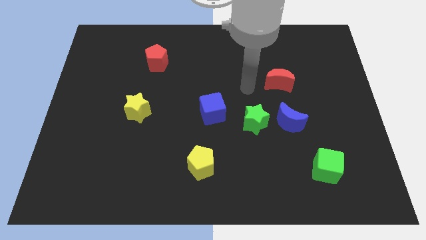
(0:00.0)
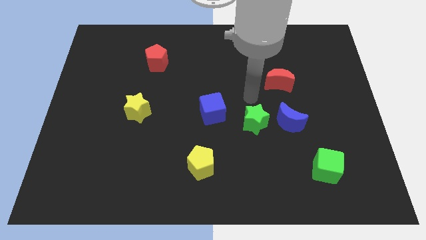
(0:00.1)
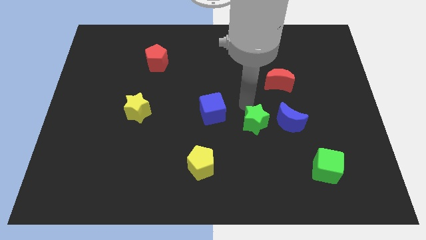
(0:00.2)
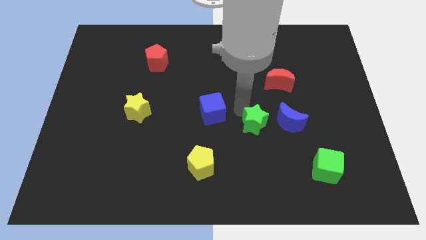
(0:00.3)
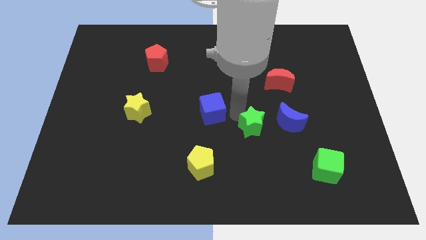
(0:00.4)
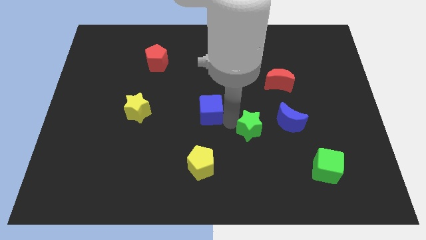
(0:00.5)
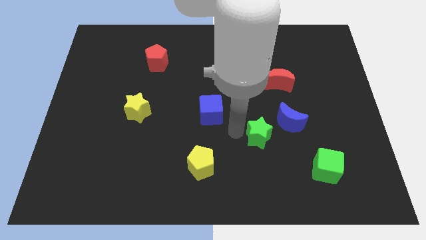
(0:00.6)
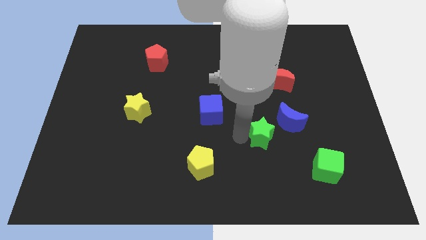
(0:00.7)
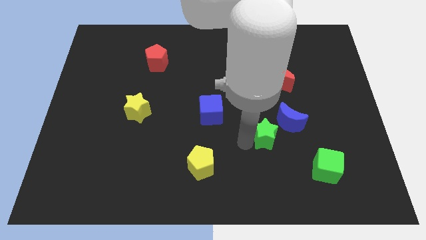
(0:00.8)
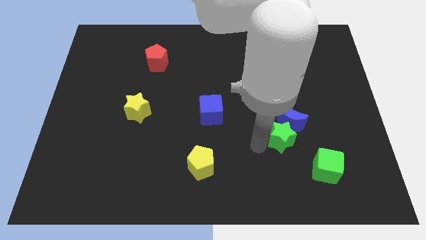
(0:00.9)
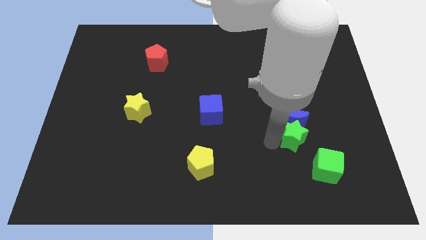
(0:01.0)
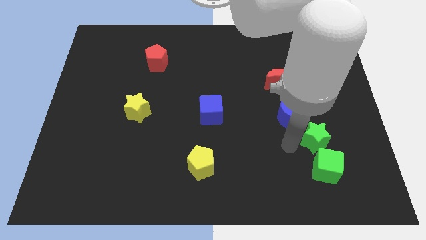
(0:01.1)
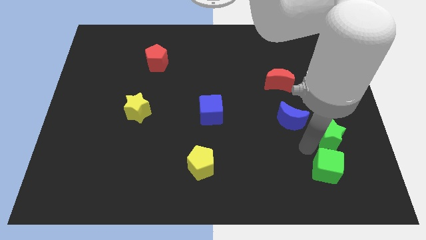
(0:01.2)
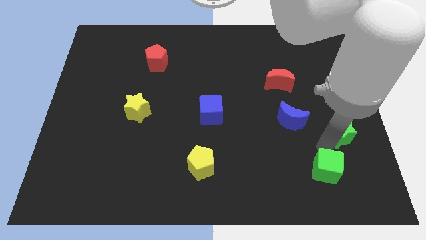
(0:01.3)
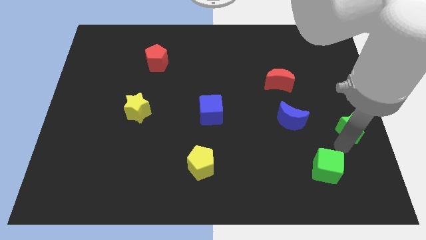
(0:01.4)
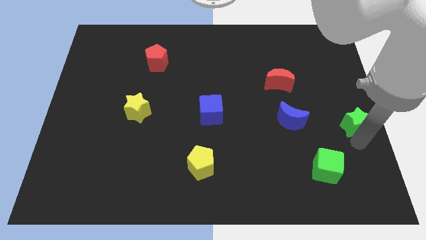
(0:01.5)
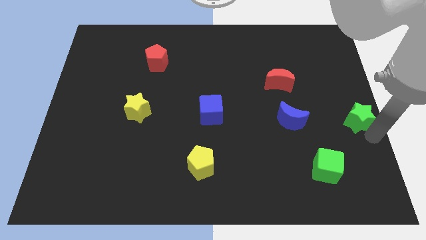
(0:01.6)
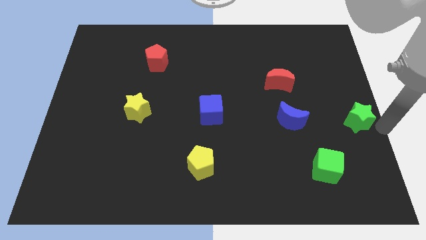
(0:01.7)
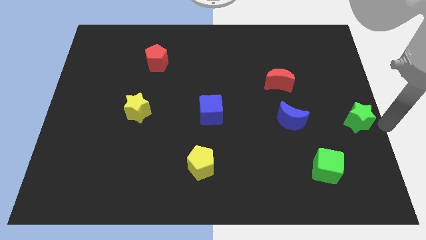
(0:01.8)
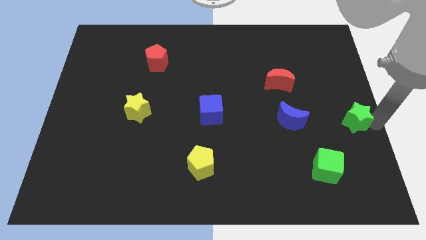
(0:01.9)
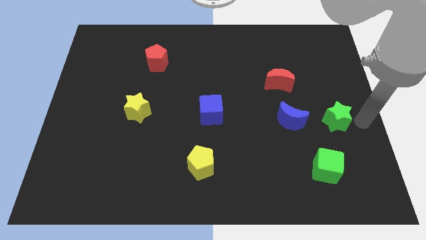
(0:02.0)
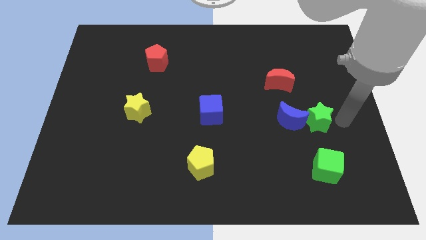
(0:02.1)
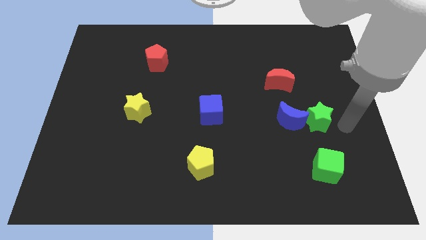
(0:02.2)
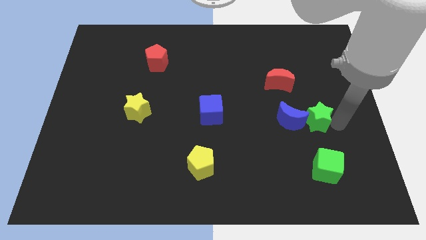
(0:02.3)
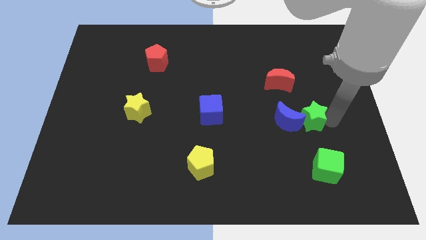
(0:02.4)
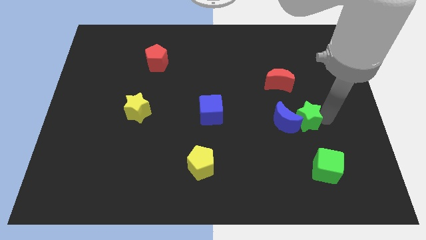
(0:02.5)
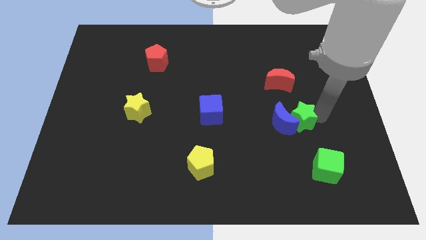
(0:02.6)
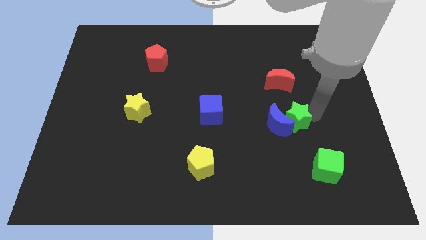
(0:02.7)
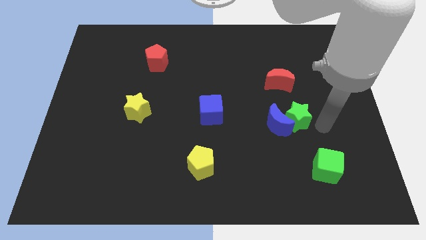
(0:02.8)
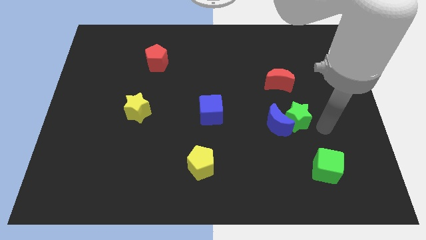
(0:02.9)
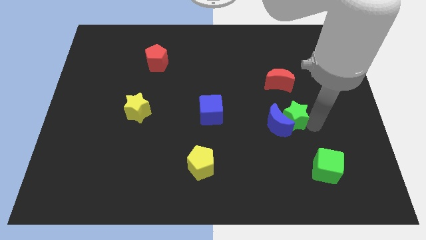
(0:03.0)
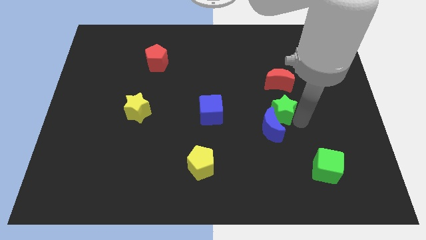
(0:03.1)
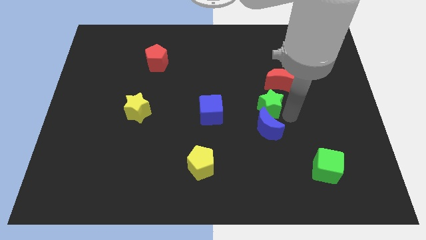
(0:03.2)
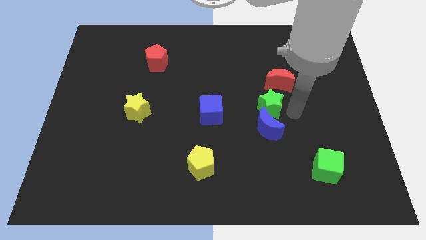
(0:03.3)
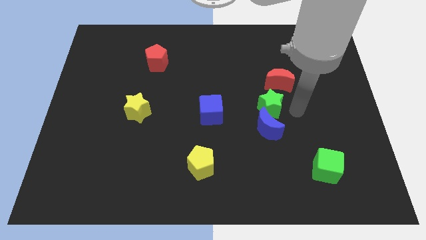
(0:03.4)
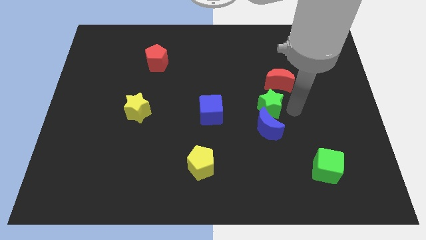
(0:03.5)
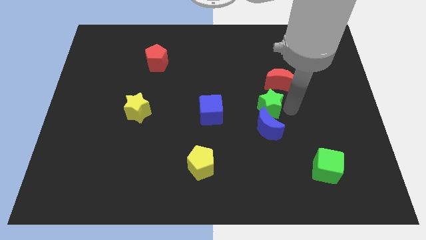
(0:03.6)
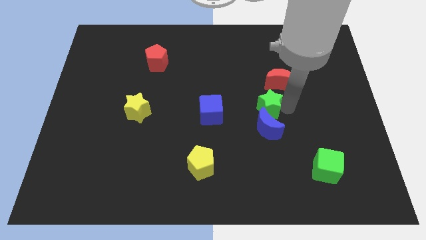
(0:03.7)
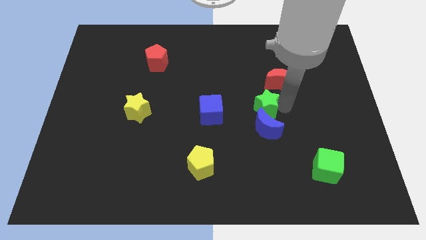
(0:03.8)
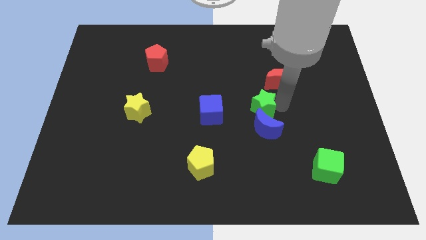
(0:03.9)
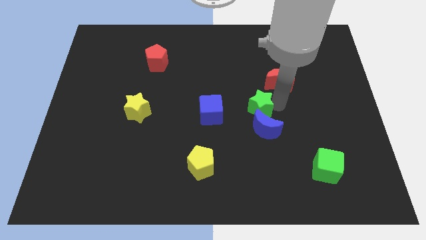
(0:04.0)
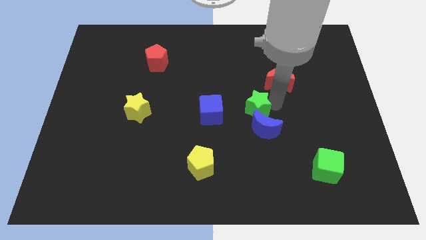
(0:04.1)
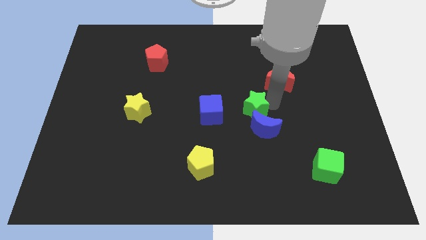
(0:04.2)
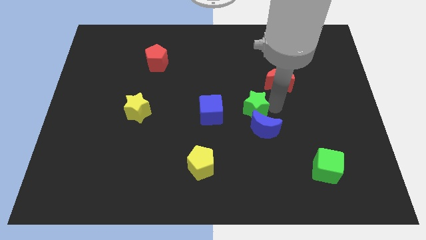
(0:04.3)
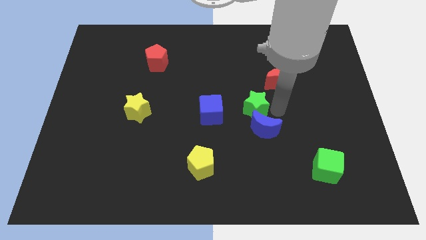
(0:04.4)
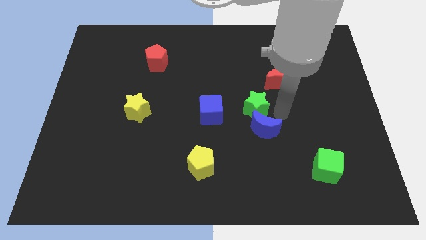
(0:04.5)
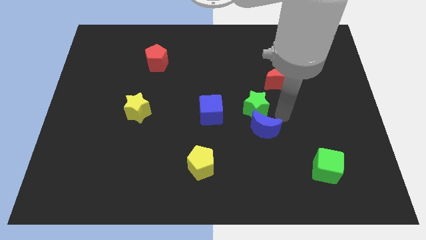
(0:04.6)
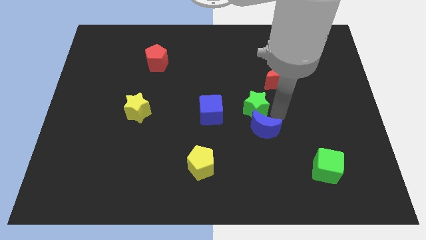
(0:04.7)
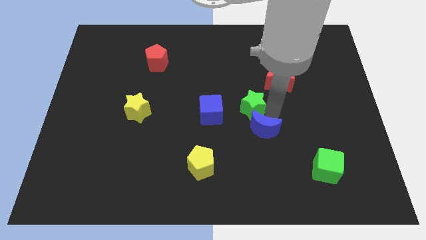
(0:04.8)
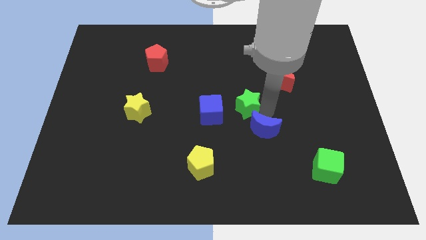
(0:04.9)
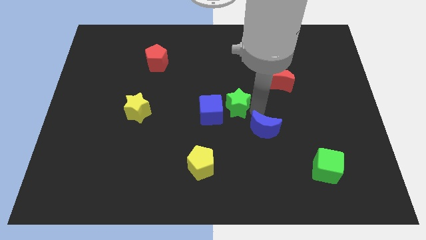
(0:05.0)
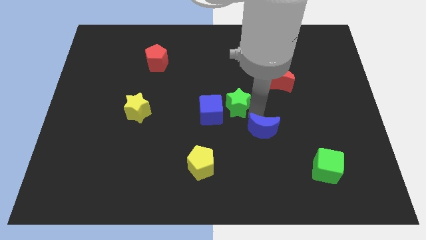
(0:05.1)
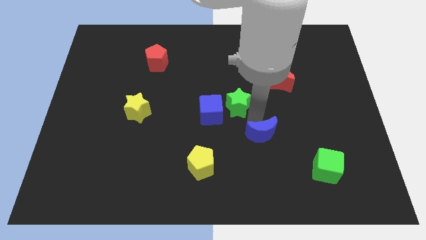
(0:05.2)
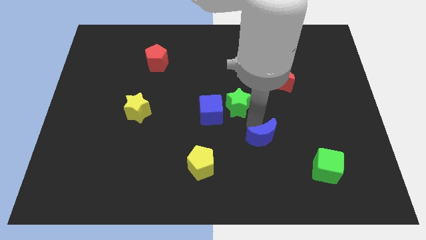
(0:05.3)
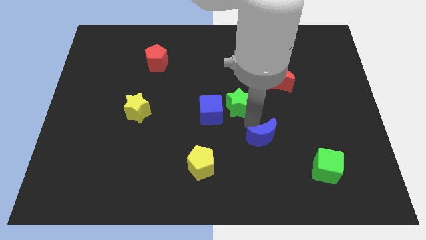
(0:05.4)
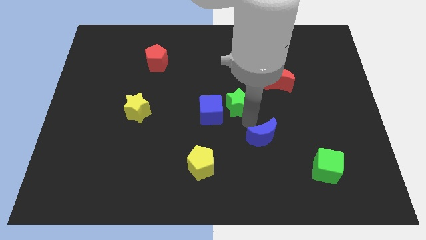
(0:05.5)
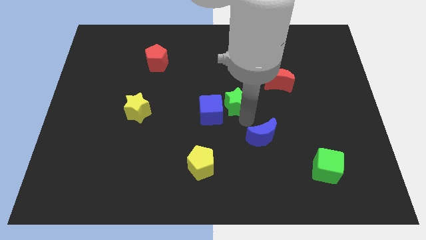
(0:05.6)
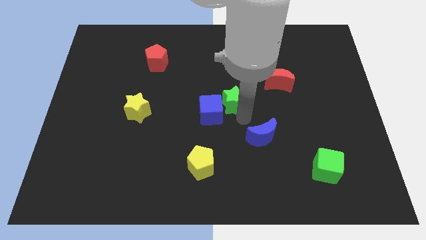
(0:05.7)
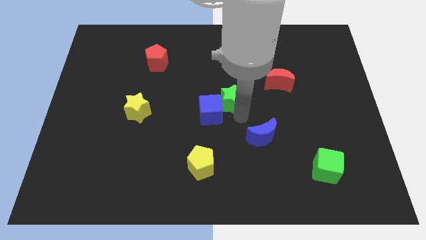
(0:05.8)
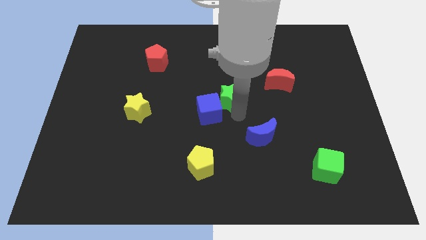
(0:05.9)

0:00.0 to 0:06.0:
push the green star above the blue cube

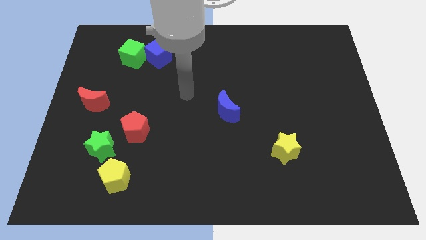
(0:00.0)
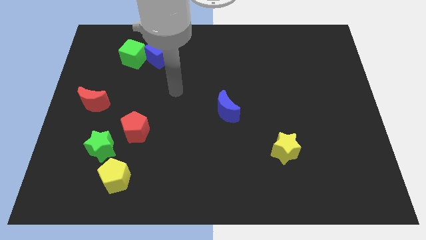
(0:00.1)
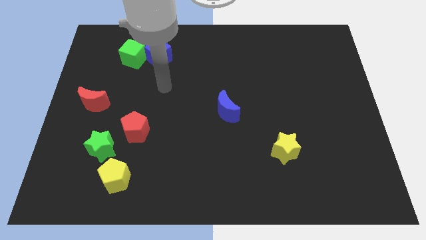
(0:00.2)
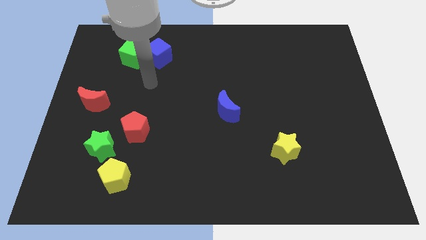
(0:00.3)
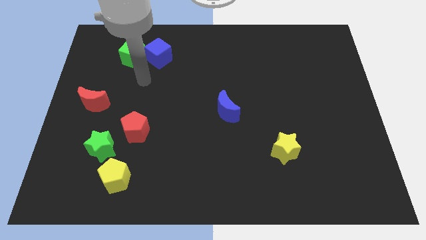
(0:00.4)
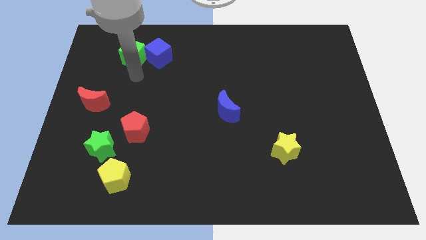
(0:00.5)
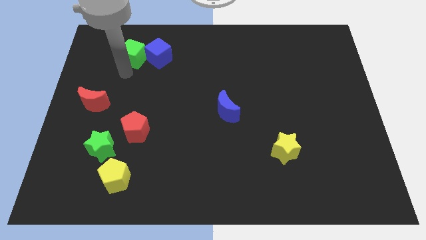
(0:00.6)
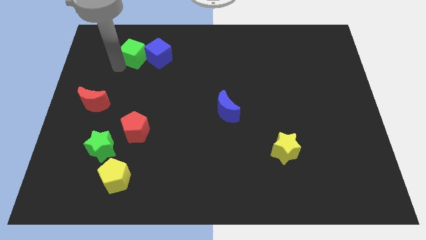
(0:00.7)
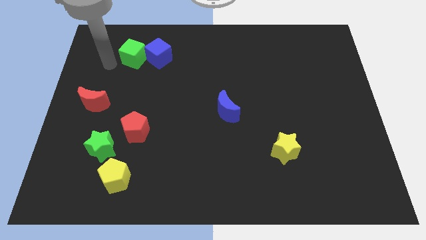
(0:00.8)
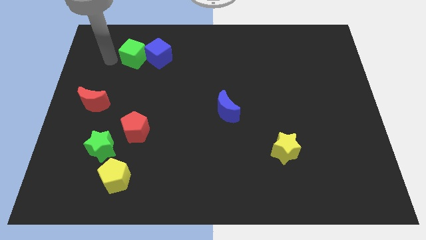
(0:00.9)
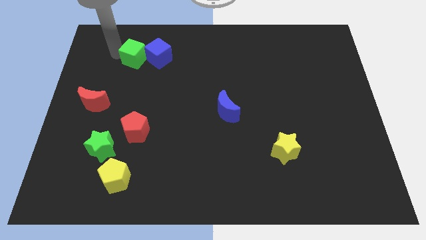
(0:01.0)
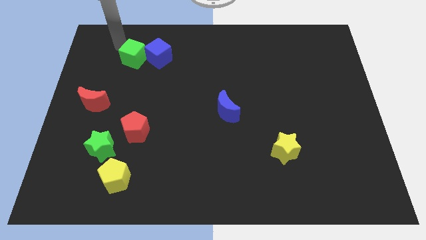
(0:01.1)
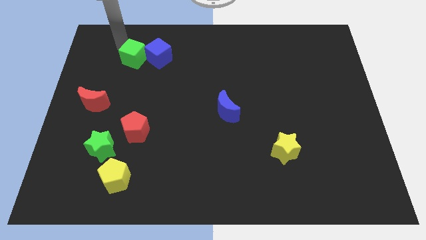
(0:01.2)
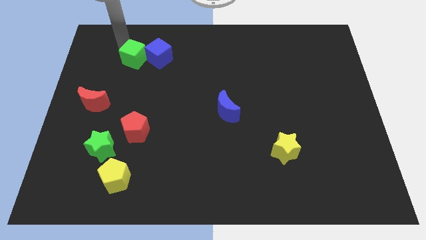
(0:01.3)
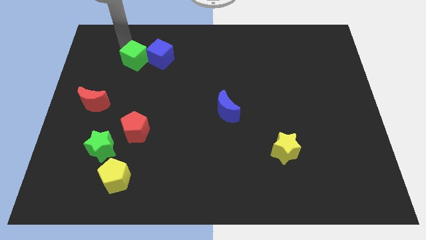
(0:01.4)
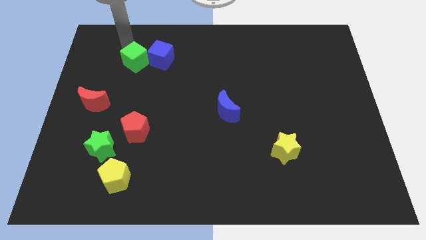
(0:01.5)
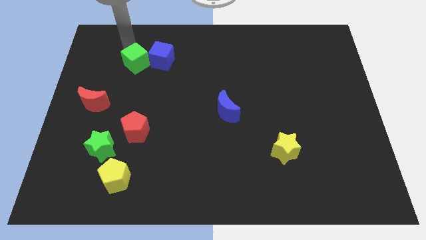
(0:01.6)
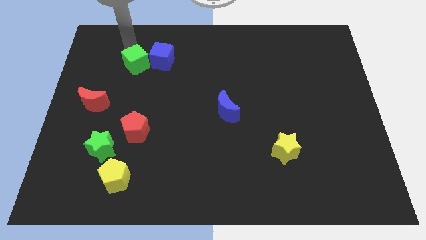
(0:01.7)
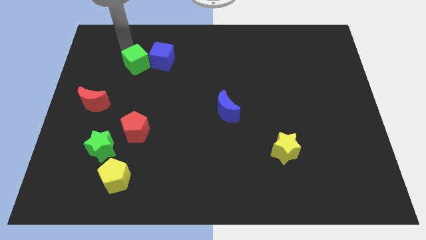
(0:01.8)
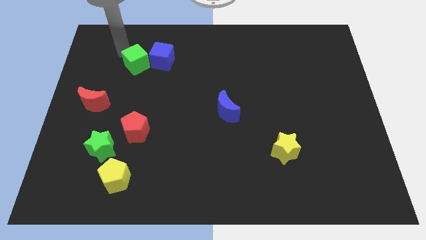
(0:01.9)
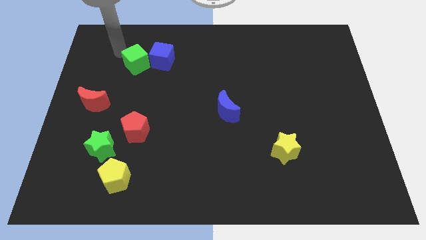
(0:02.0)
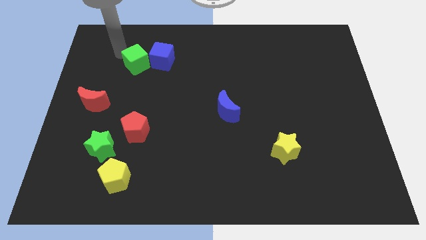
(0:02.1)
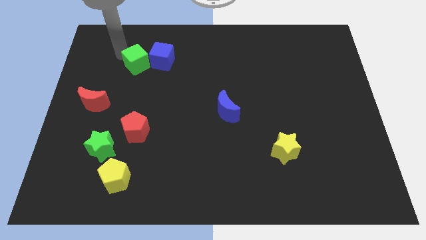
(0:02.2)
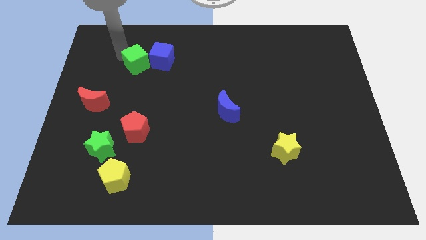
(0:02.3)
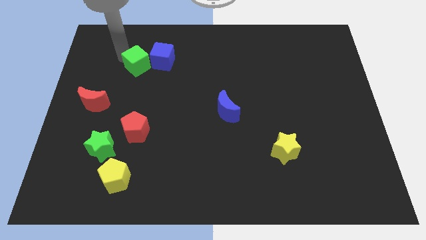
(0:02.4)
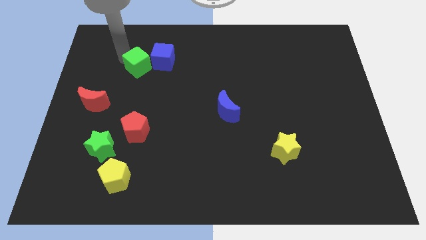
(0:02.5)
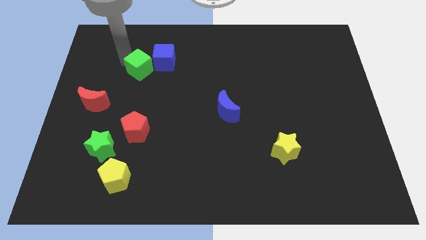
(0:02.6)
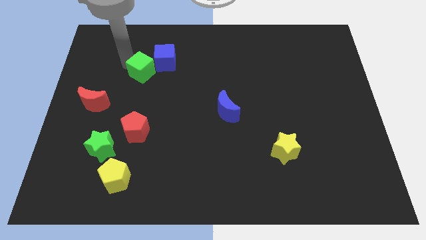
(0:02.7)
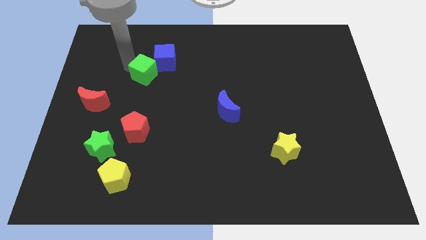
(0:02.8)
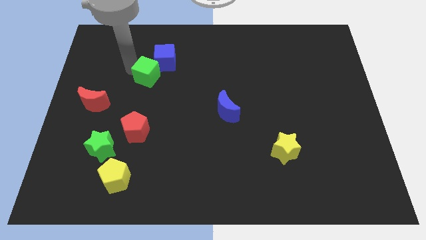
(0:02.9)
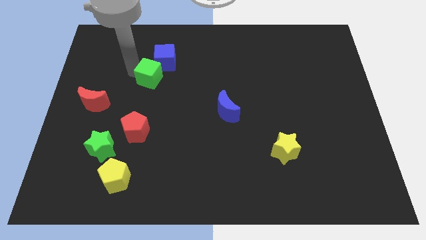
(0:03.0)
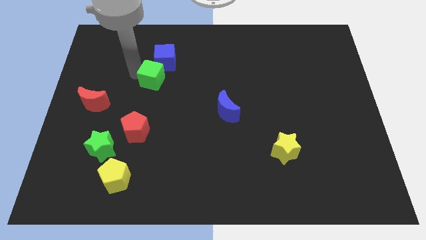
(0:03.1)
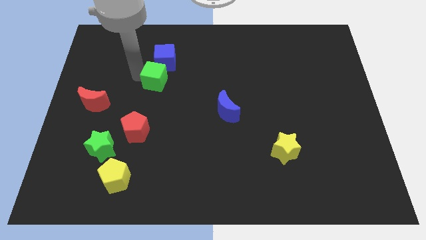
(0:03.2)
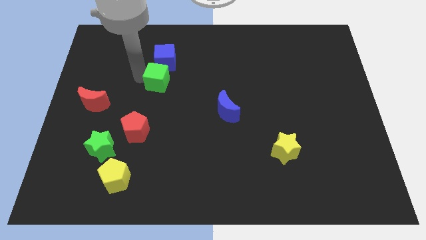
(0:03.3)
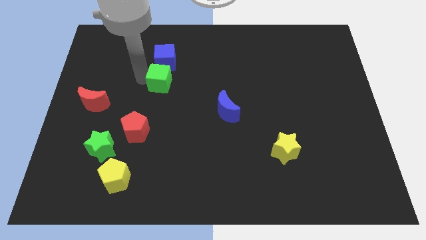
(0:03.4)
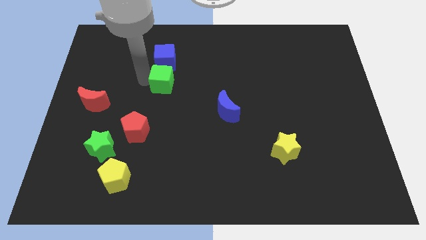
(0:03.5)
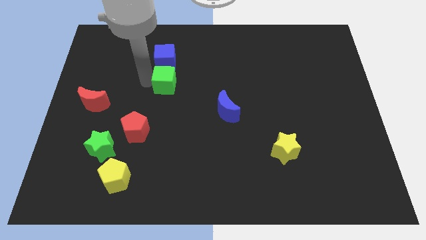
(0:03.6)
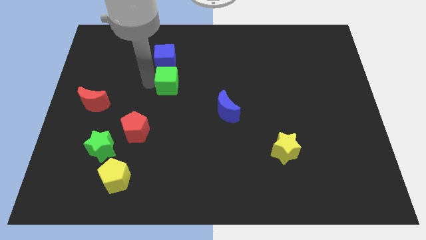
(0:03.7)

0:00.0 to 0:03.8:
put the green cube diagonally down and to the right of the blue cube
